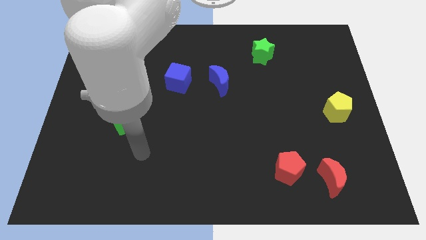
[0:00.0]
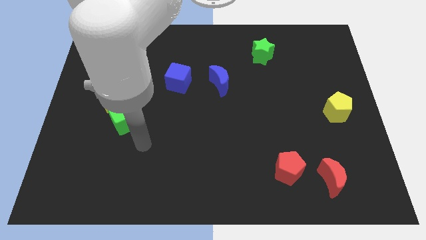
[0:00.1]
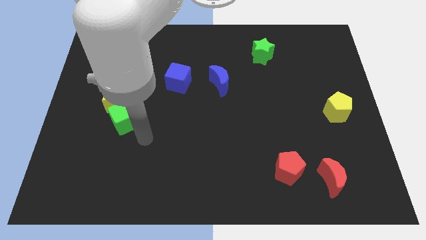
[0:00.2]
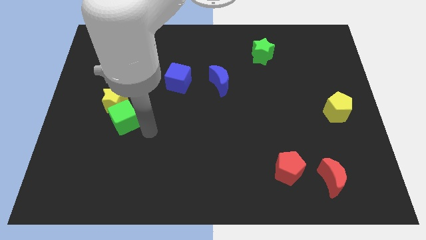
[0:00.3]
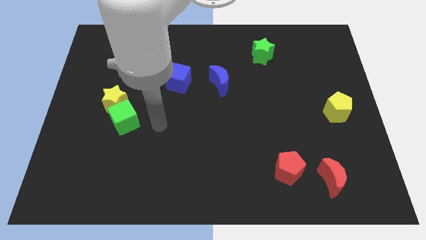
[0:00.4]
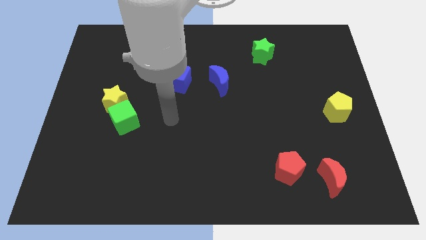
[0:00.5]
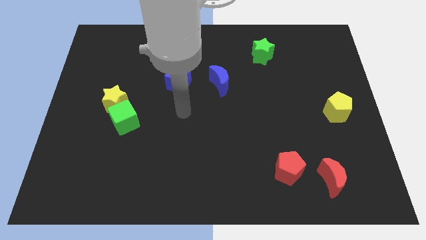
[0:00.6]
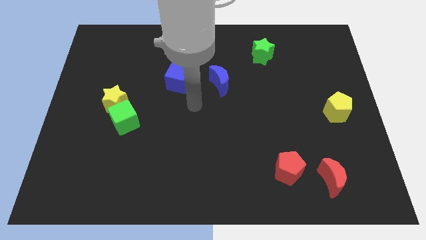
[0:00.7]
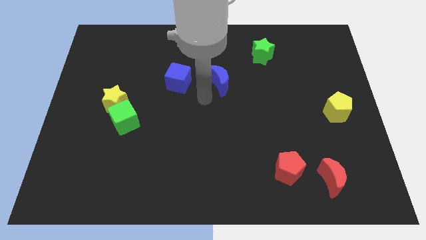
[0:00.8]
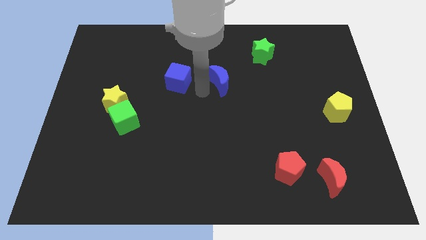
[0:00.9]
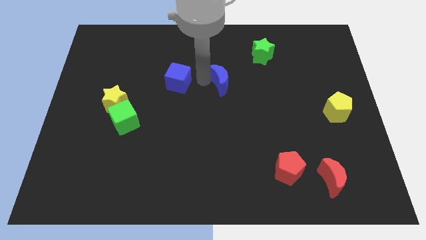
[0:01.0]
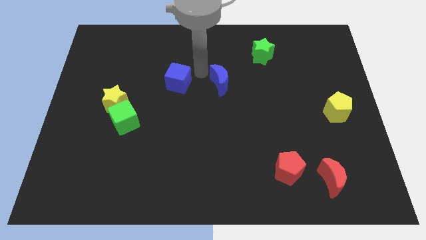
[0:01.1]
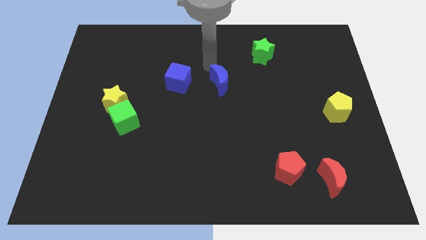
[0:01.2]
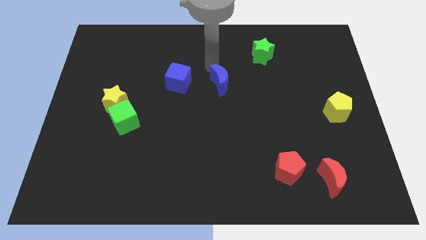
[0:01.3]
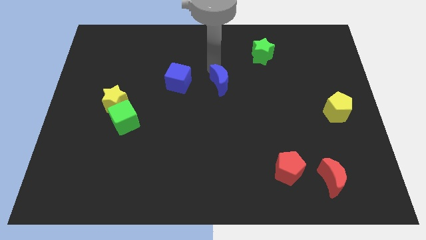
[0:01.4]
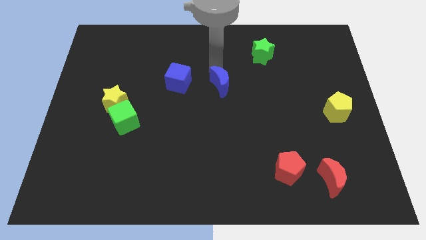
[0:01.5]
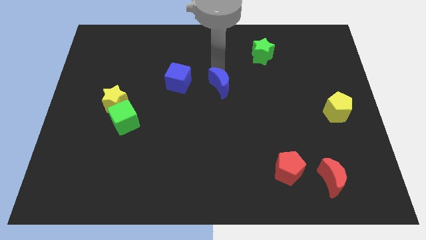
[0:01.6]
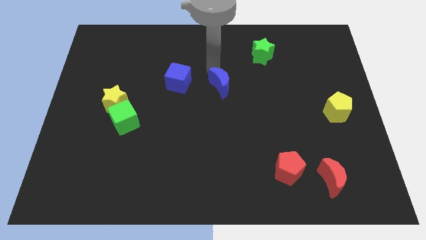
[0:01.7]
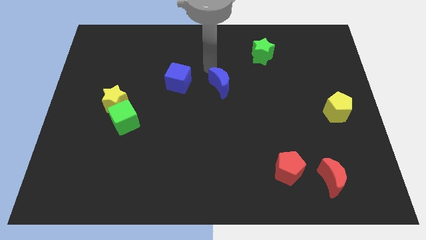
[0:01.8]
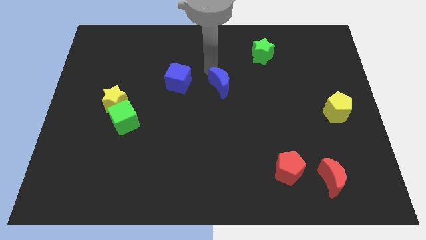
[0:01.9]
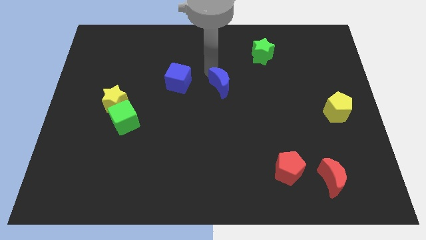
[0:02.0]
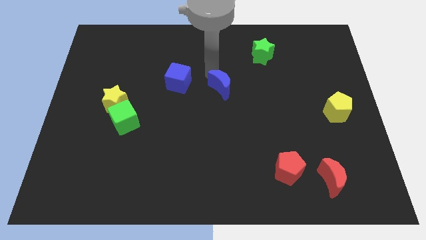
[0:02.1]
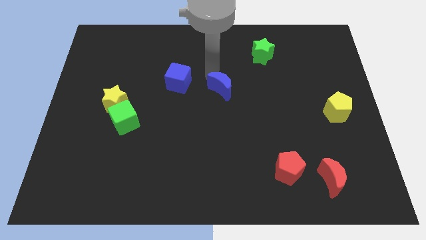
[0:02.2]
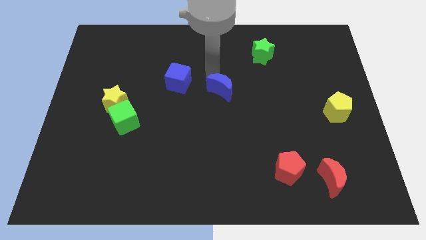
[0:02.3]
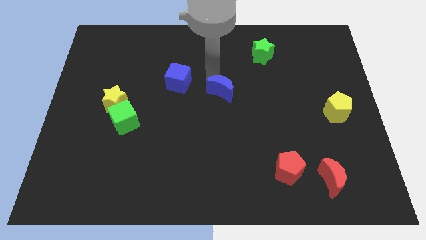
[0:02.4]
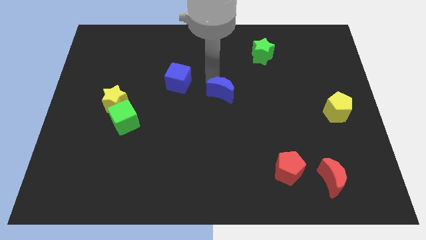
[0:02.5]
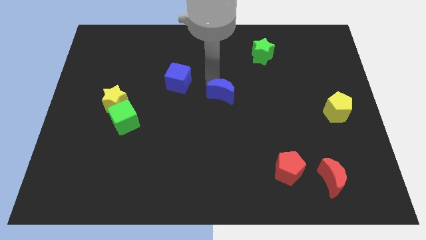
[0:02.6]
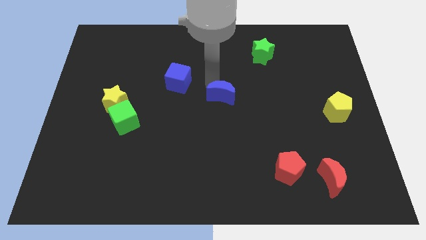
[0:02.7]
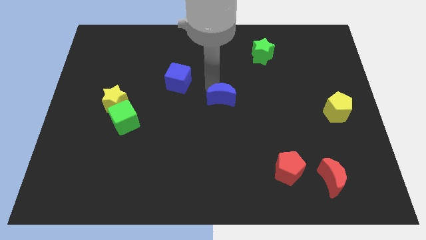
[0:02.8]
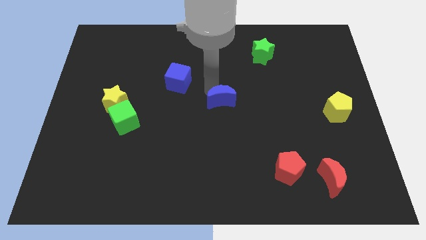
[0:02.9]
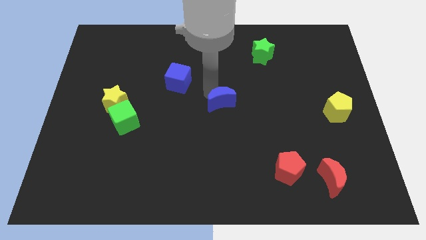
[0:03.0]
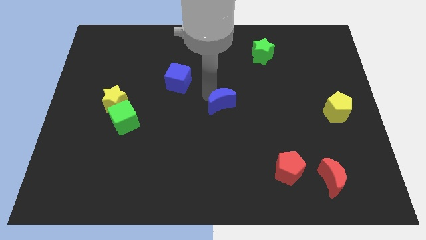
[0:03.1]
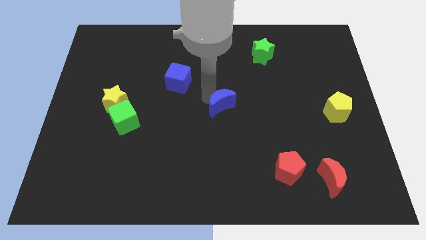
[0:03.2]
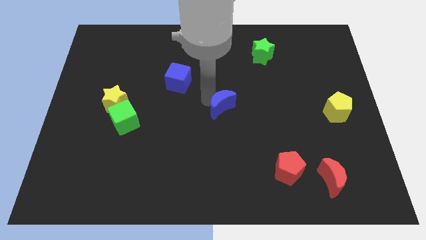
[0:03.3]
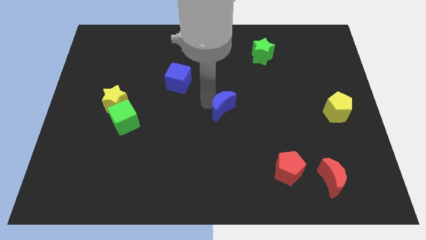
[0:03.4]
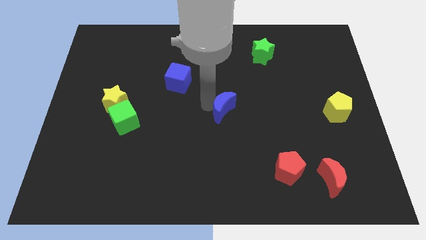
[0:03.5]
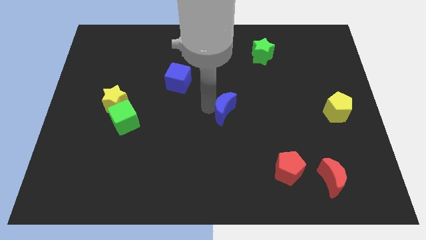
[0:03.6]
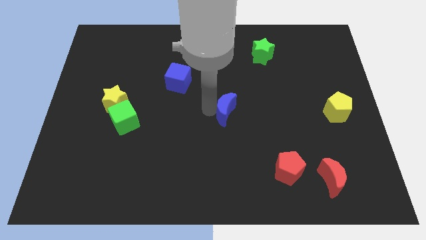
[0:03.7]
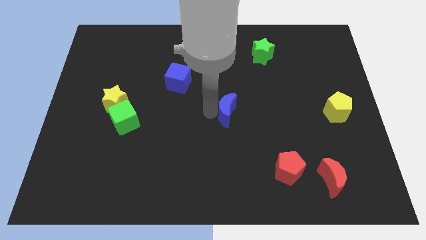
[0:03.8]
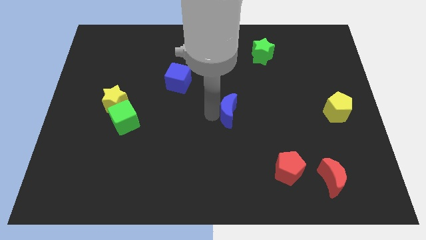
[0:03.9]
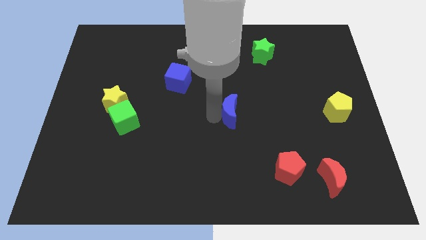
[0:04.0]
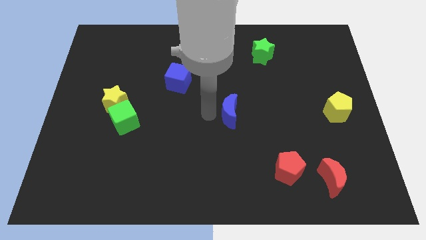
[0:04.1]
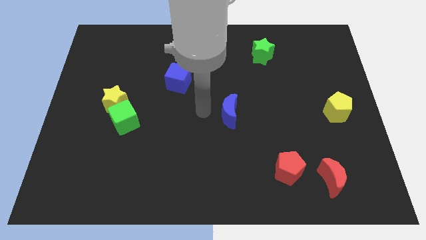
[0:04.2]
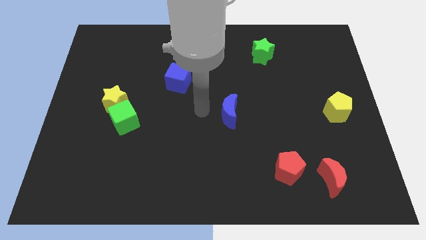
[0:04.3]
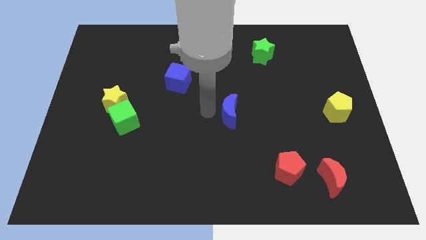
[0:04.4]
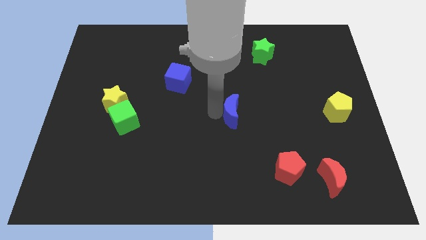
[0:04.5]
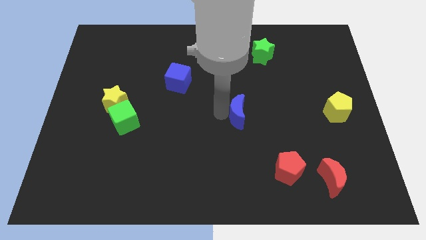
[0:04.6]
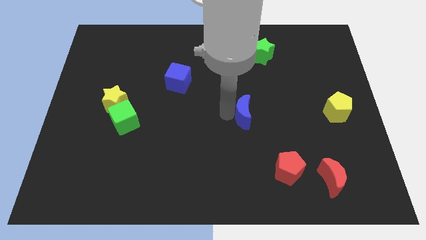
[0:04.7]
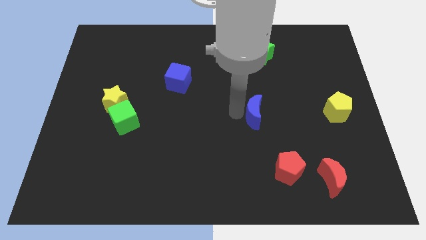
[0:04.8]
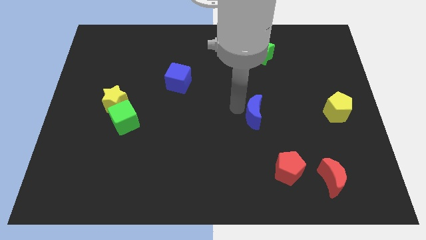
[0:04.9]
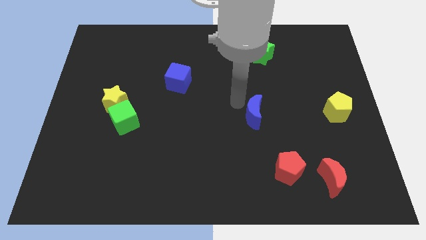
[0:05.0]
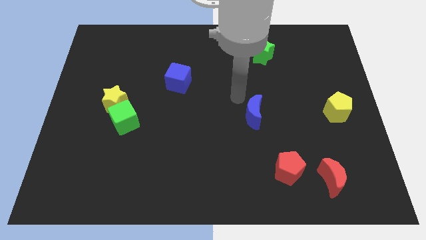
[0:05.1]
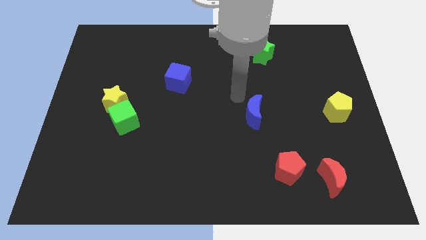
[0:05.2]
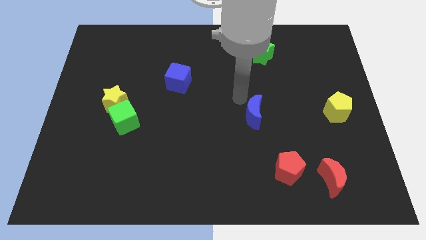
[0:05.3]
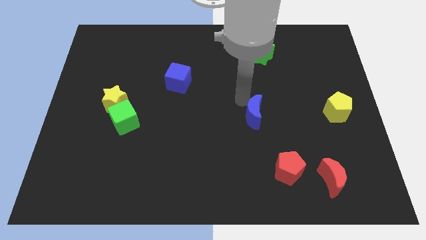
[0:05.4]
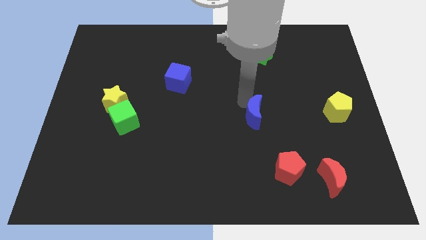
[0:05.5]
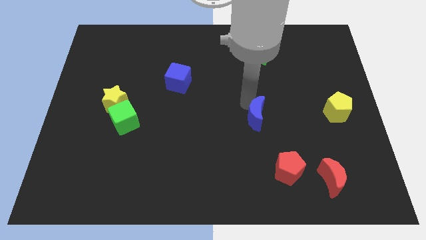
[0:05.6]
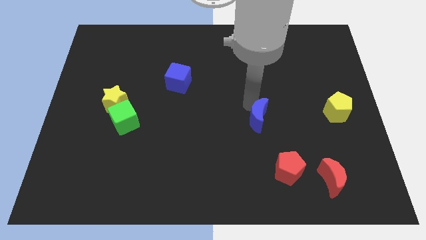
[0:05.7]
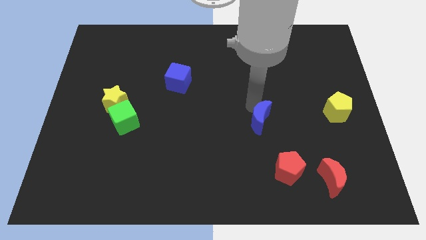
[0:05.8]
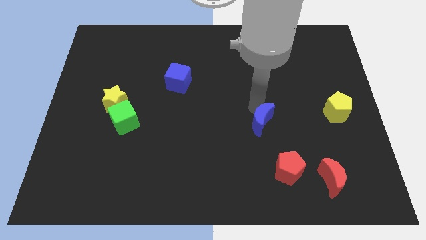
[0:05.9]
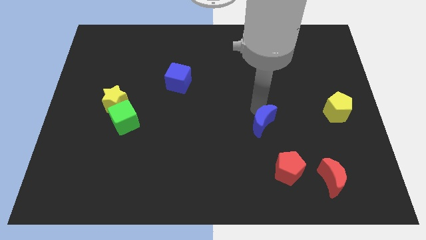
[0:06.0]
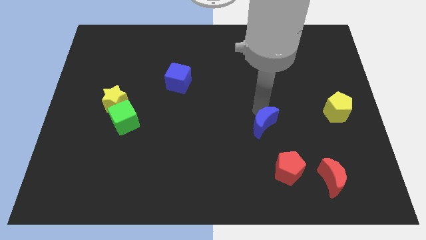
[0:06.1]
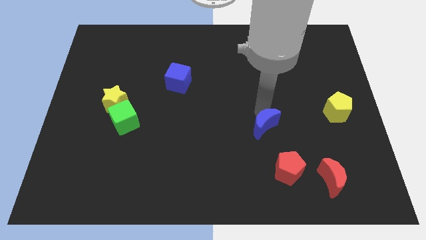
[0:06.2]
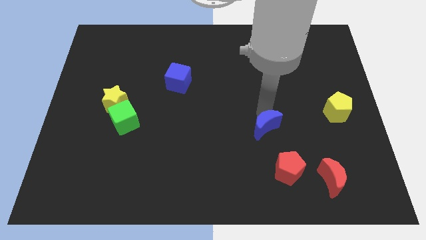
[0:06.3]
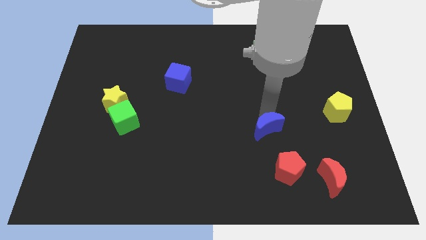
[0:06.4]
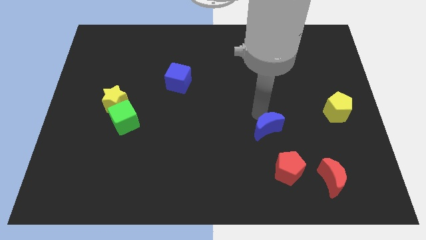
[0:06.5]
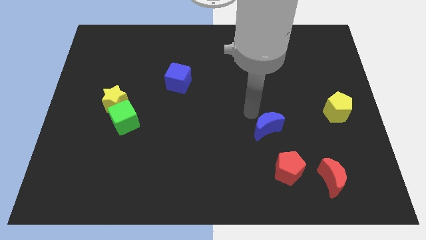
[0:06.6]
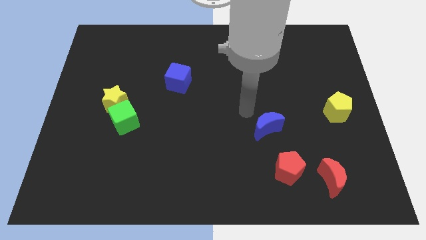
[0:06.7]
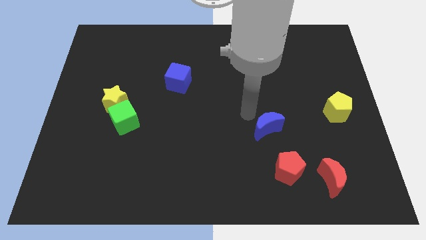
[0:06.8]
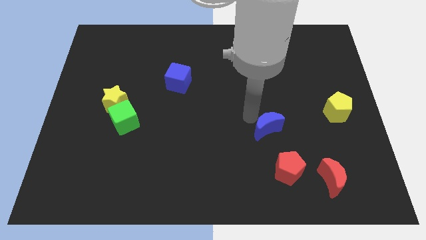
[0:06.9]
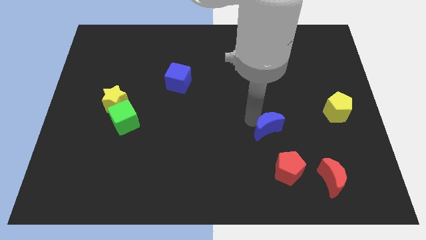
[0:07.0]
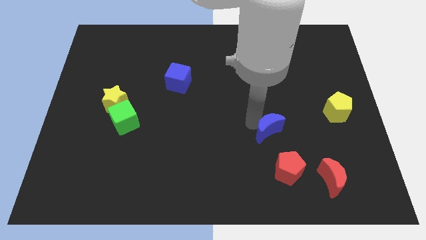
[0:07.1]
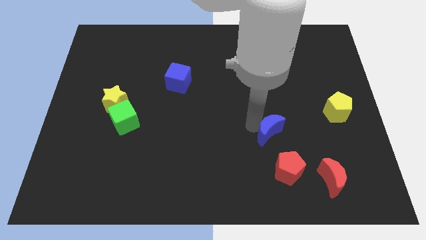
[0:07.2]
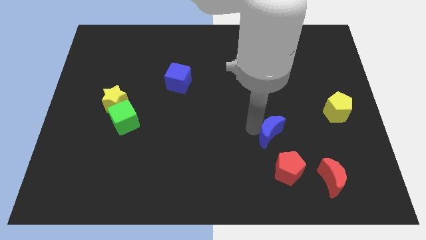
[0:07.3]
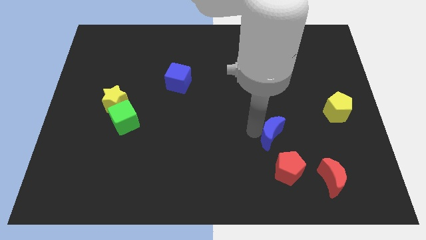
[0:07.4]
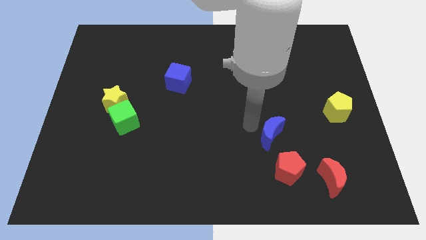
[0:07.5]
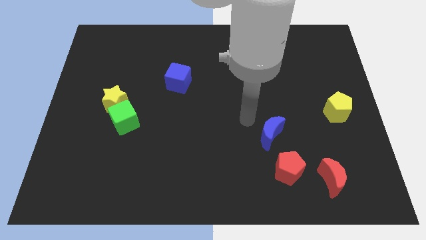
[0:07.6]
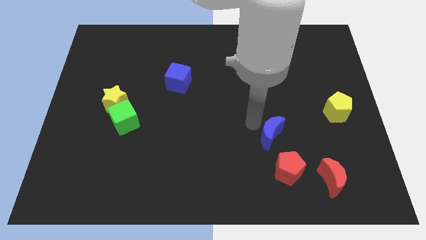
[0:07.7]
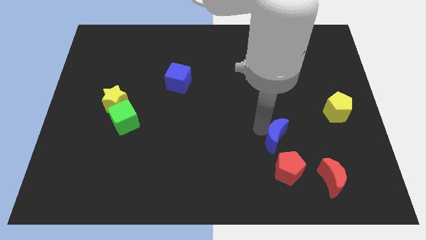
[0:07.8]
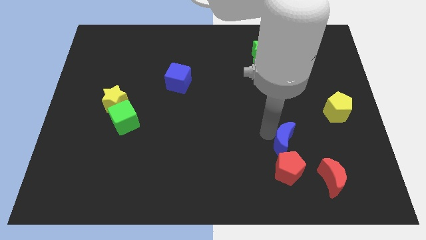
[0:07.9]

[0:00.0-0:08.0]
move the blue moon to the top left of the red moon
